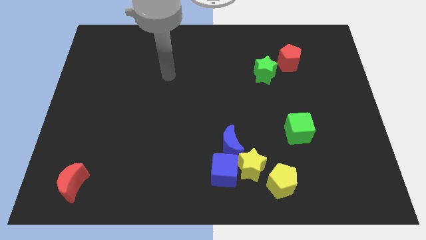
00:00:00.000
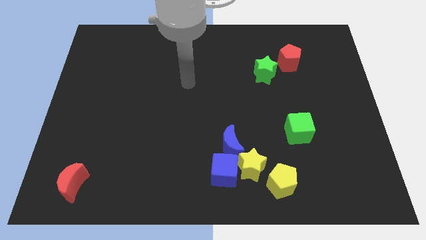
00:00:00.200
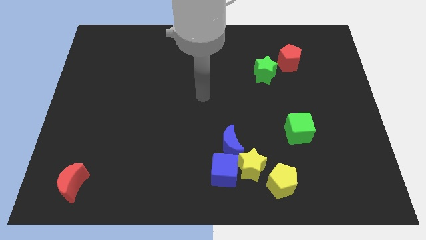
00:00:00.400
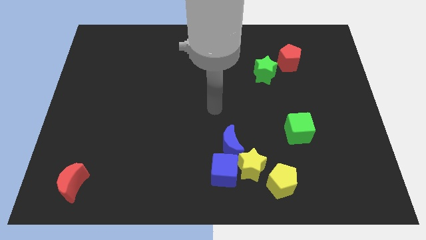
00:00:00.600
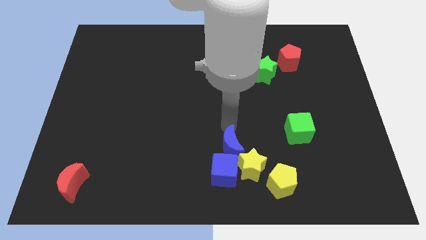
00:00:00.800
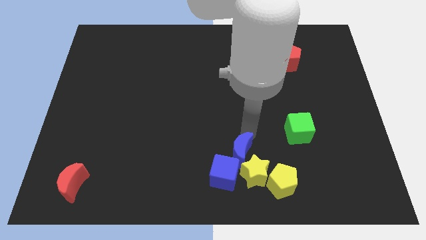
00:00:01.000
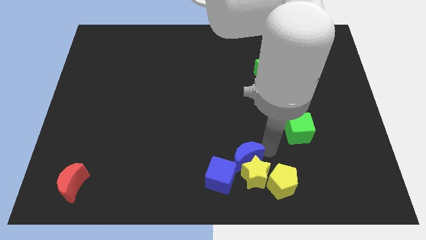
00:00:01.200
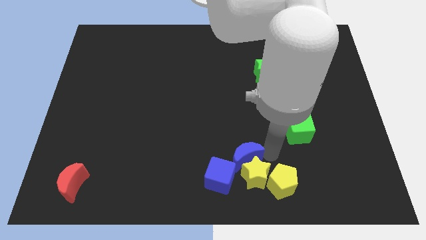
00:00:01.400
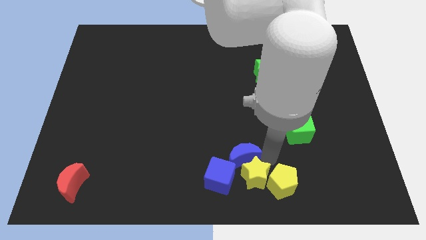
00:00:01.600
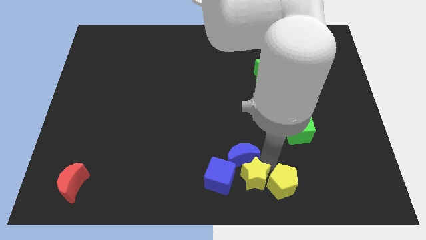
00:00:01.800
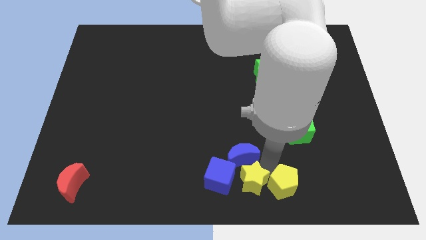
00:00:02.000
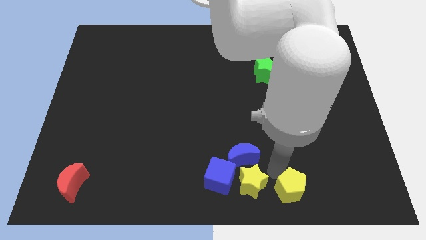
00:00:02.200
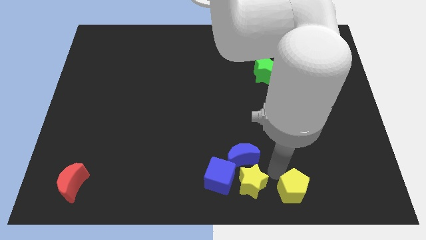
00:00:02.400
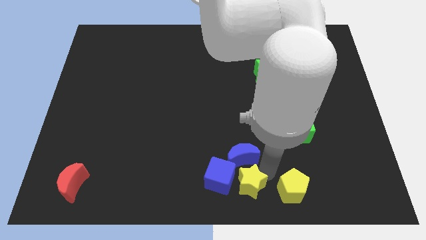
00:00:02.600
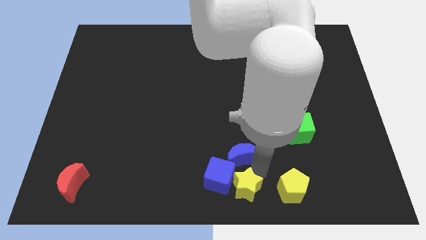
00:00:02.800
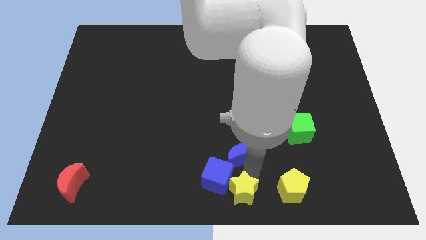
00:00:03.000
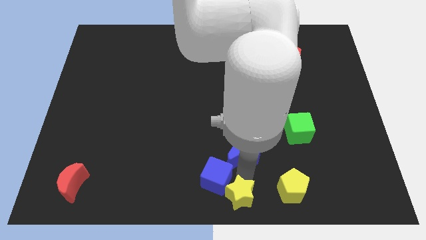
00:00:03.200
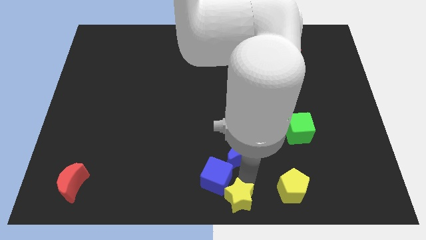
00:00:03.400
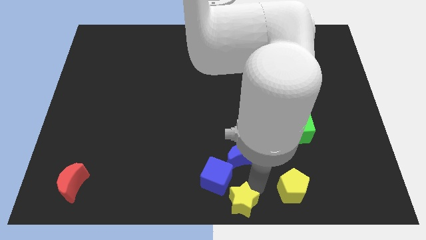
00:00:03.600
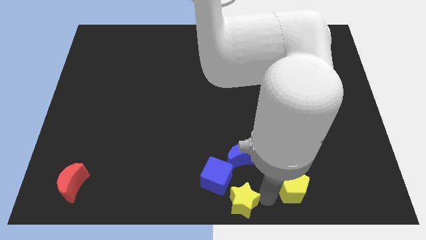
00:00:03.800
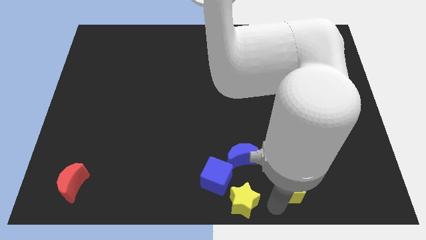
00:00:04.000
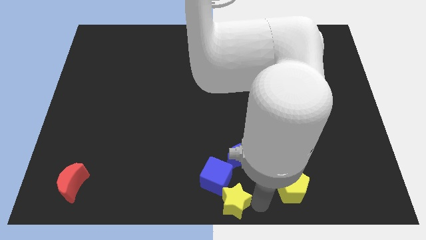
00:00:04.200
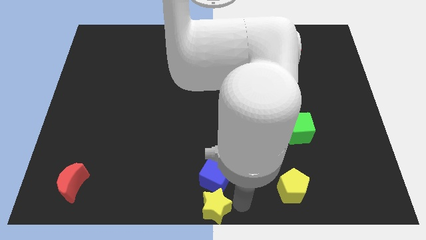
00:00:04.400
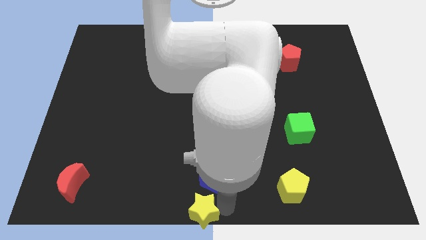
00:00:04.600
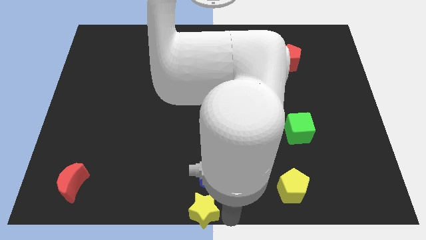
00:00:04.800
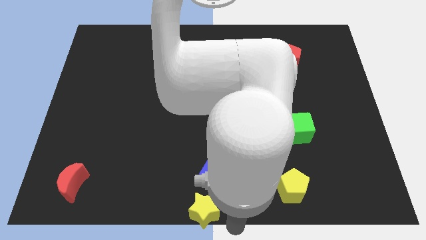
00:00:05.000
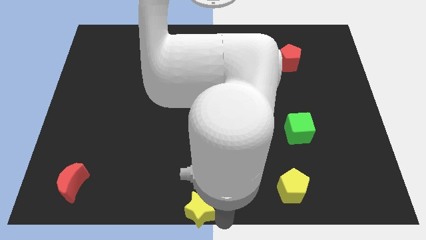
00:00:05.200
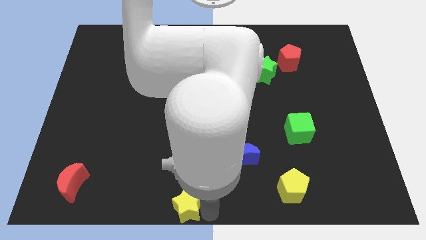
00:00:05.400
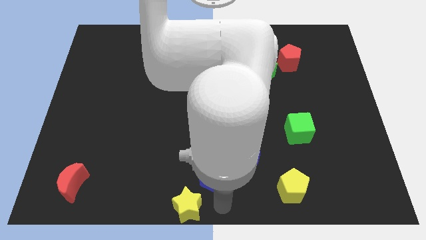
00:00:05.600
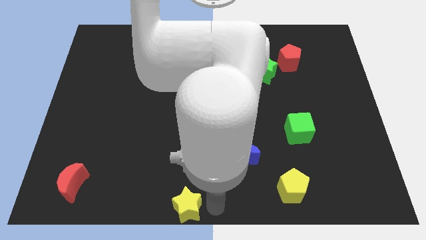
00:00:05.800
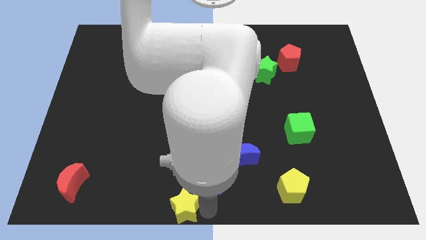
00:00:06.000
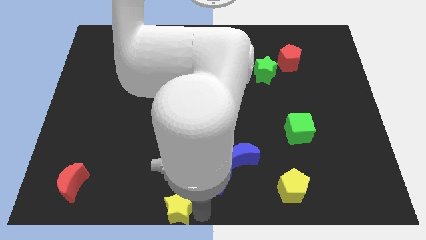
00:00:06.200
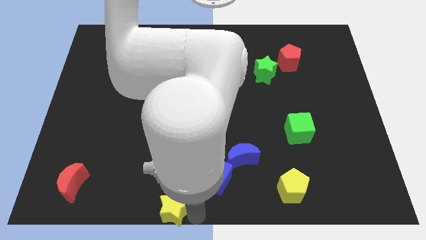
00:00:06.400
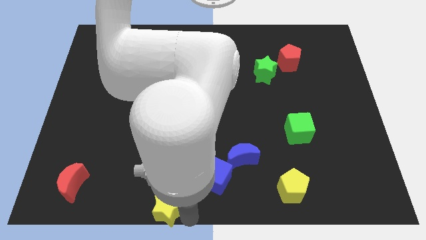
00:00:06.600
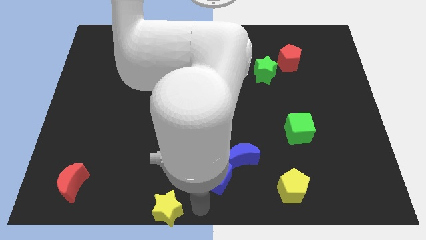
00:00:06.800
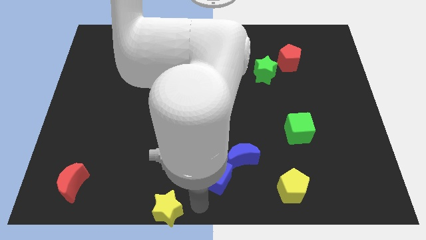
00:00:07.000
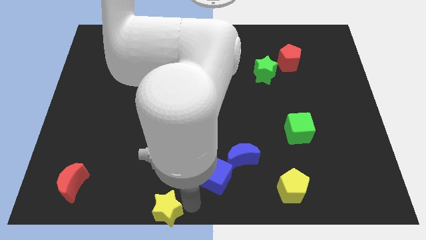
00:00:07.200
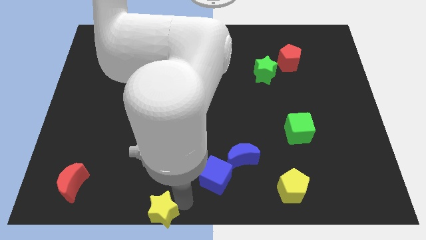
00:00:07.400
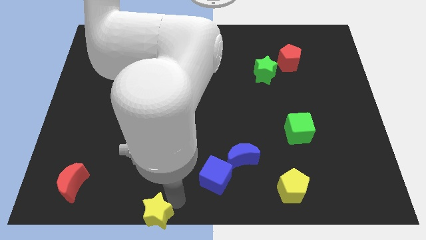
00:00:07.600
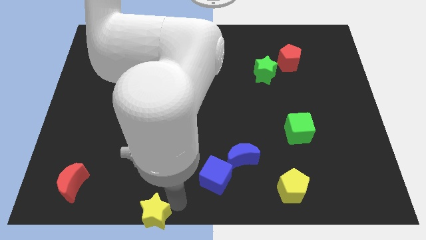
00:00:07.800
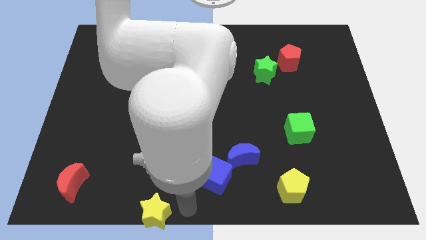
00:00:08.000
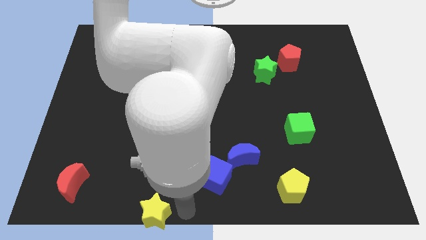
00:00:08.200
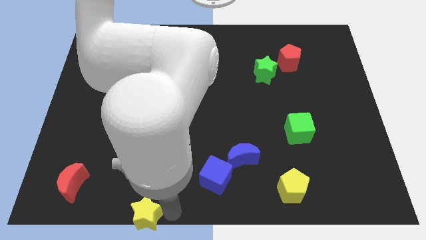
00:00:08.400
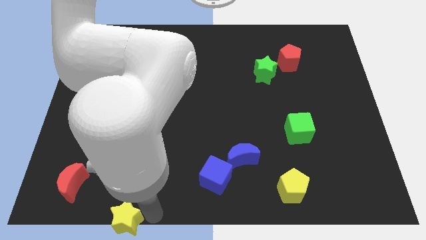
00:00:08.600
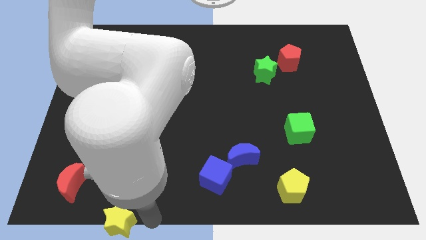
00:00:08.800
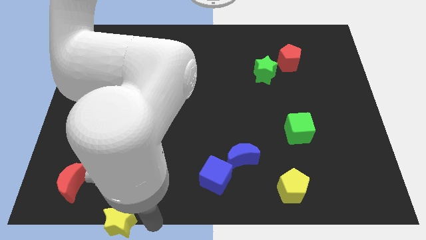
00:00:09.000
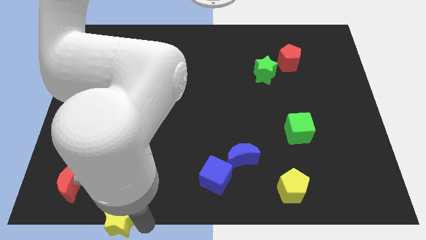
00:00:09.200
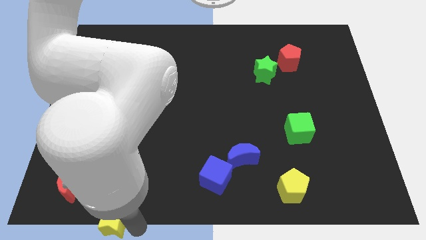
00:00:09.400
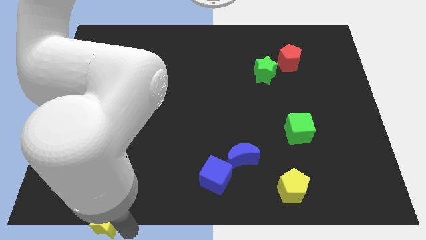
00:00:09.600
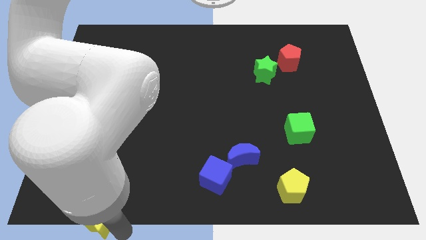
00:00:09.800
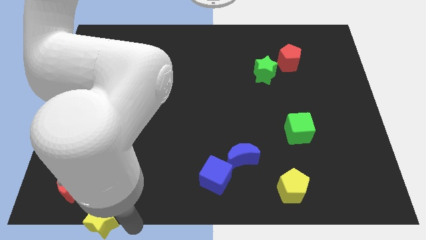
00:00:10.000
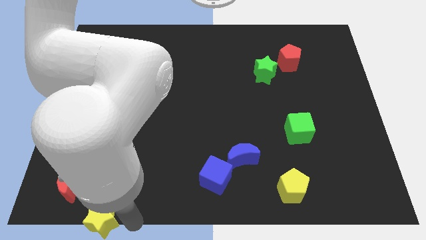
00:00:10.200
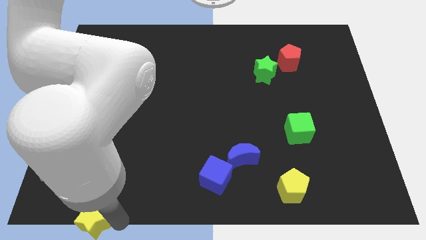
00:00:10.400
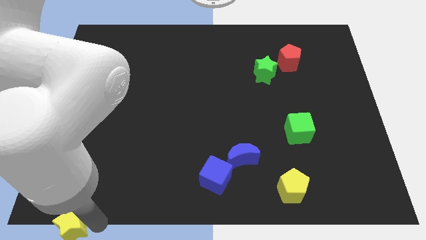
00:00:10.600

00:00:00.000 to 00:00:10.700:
move the yellow star to the bottom left corner

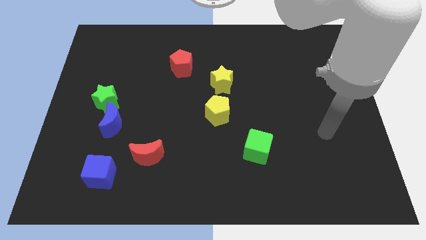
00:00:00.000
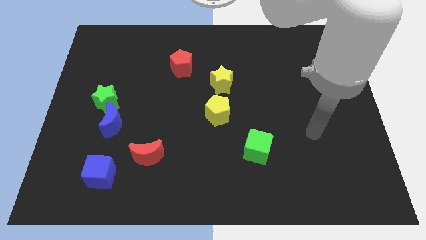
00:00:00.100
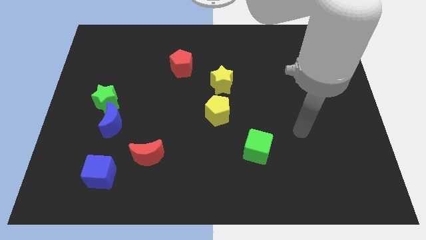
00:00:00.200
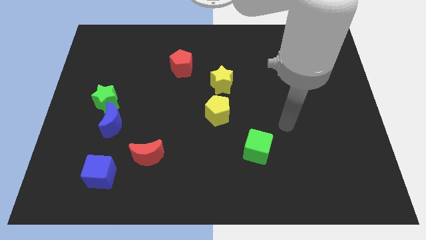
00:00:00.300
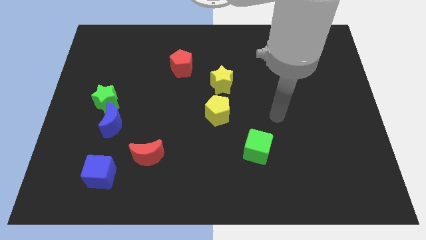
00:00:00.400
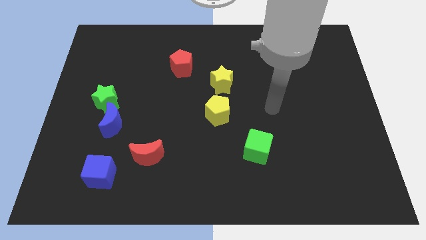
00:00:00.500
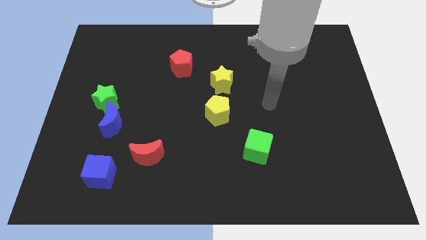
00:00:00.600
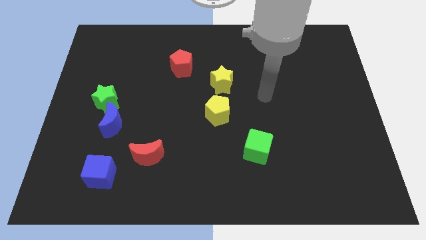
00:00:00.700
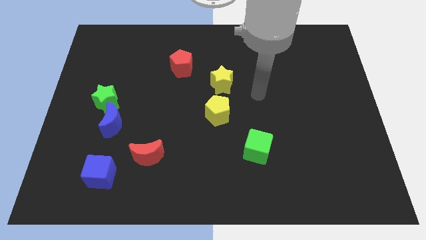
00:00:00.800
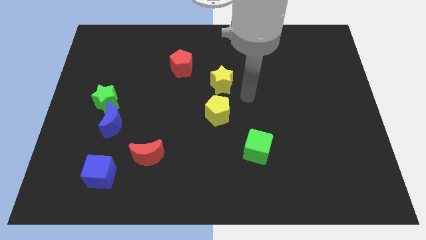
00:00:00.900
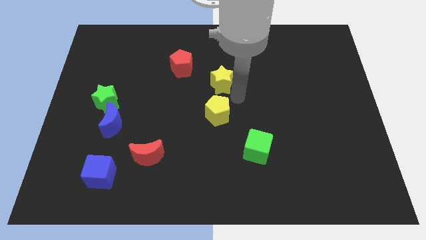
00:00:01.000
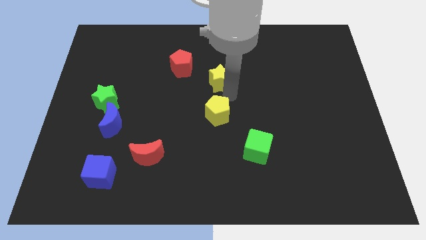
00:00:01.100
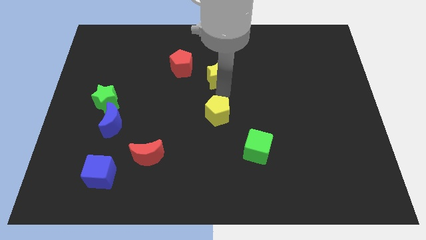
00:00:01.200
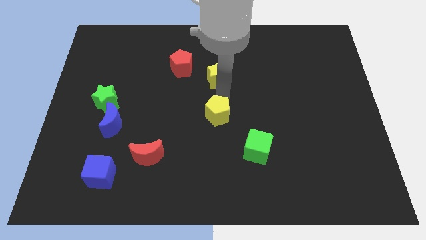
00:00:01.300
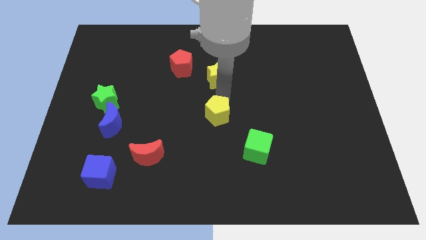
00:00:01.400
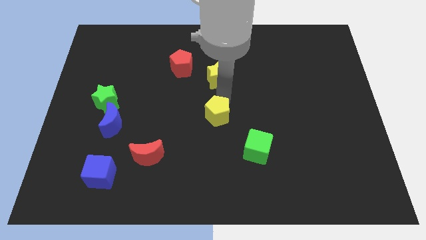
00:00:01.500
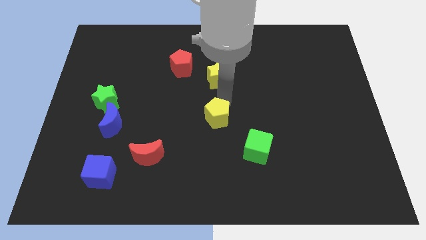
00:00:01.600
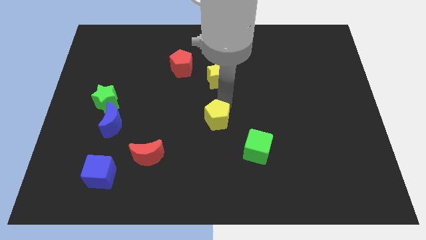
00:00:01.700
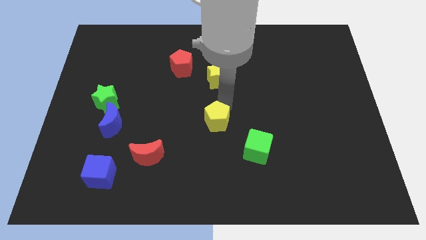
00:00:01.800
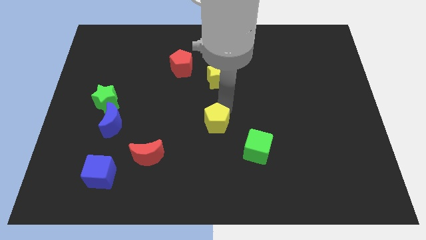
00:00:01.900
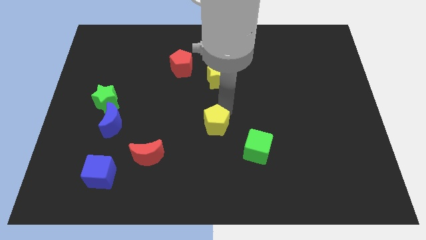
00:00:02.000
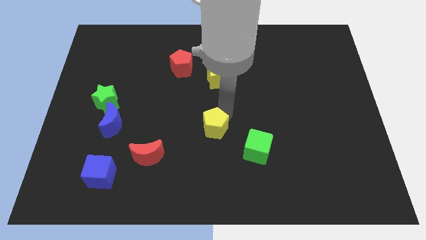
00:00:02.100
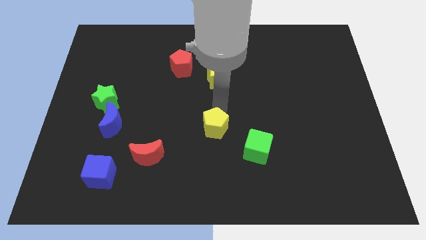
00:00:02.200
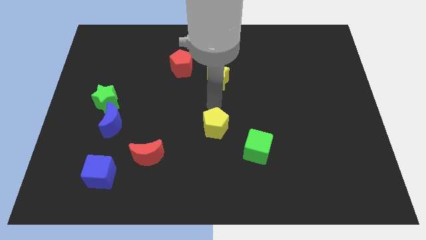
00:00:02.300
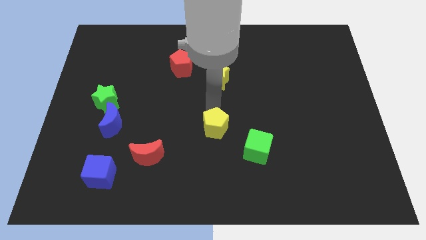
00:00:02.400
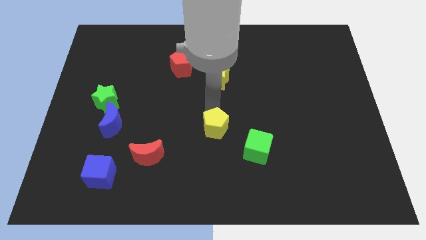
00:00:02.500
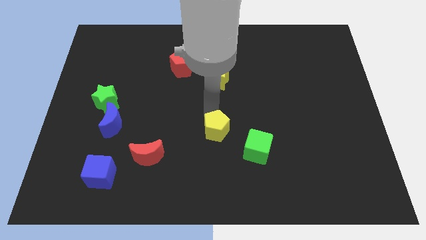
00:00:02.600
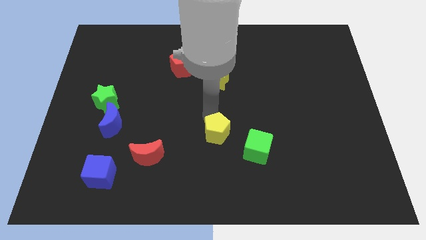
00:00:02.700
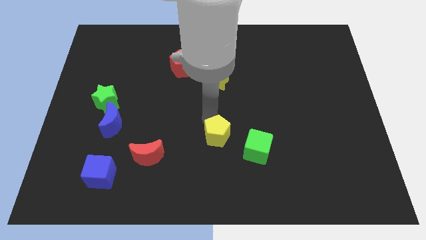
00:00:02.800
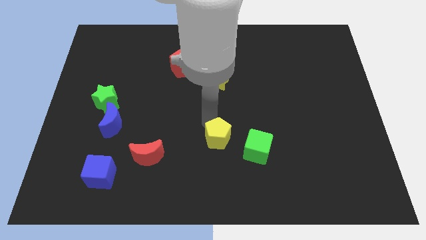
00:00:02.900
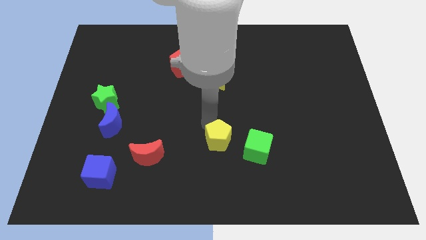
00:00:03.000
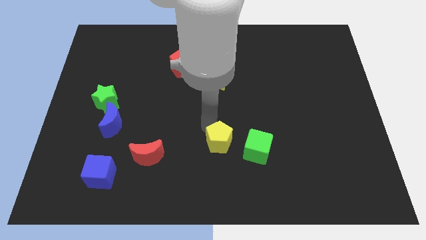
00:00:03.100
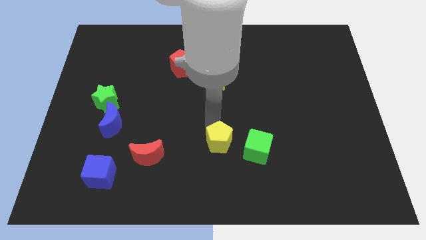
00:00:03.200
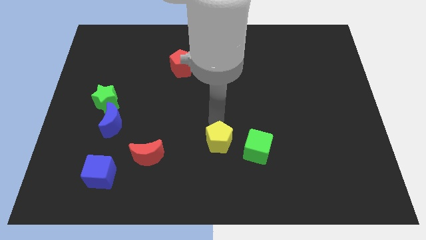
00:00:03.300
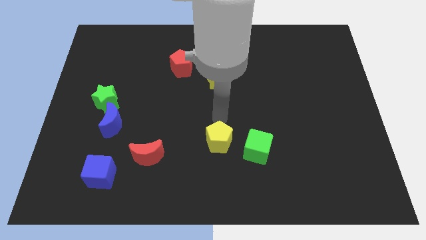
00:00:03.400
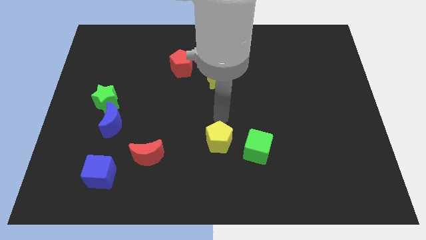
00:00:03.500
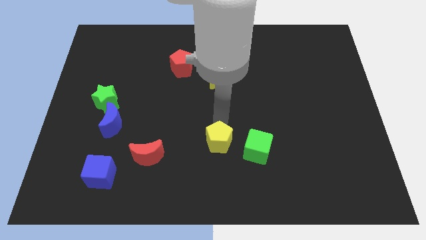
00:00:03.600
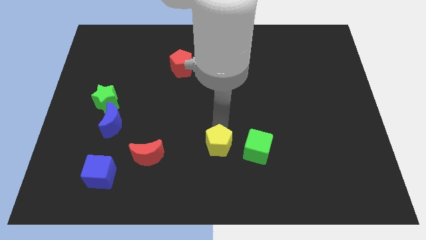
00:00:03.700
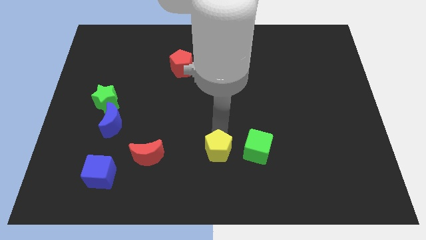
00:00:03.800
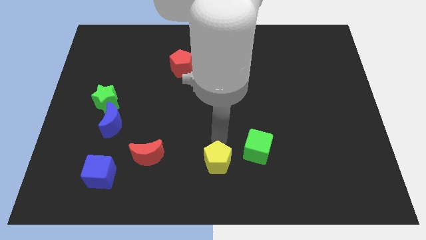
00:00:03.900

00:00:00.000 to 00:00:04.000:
push the yellow pentagon to the bottom
